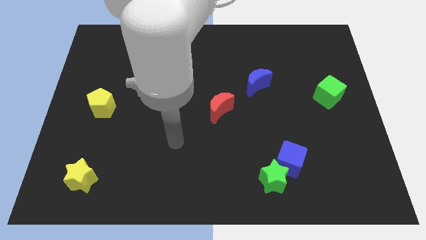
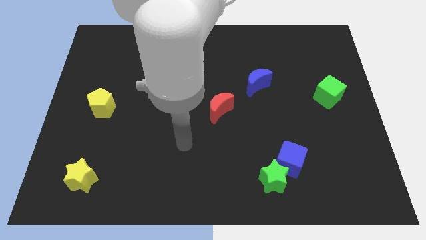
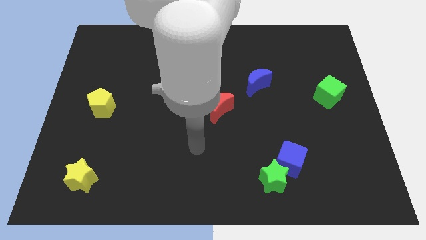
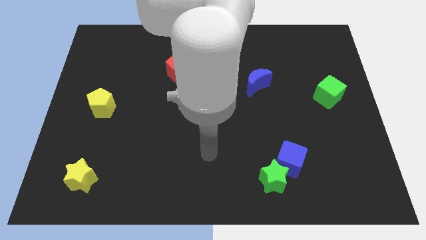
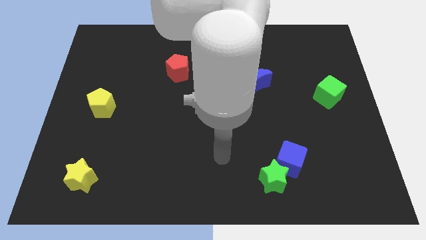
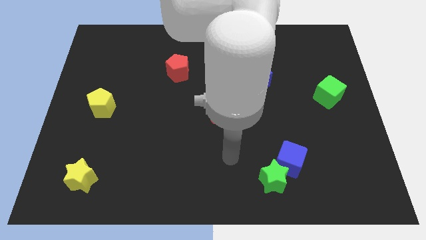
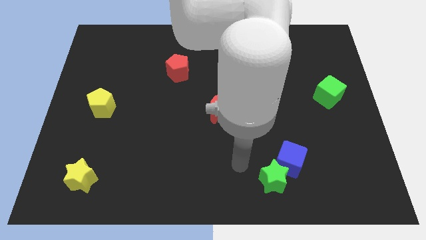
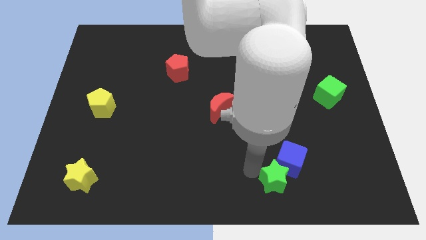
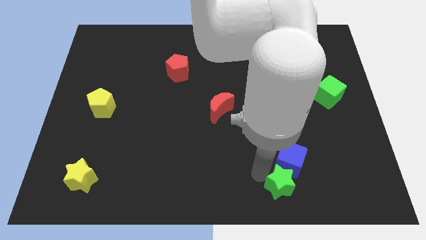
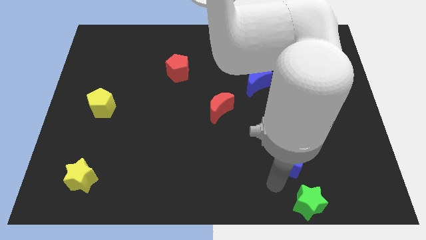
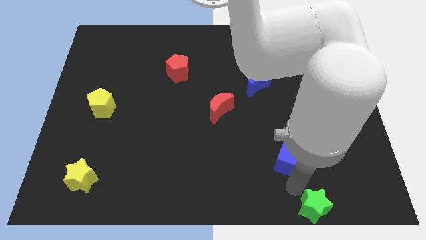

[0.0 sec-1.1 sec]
pull the blue cube apart from the green star

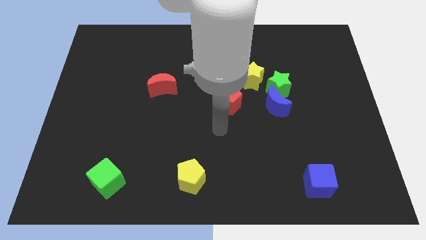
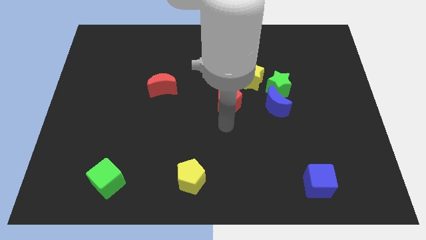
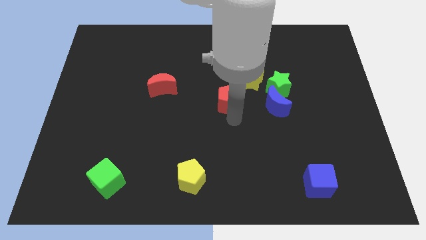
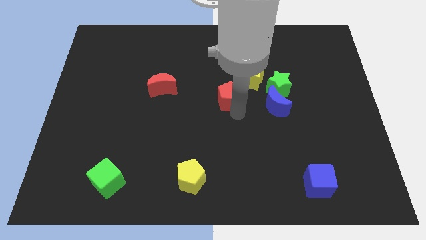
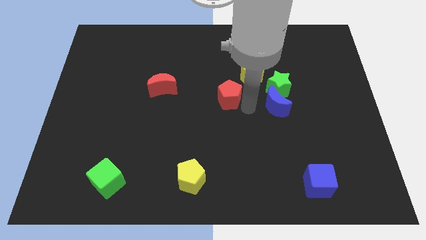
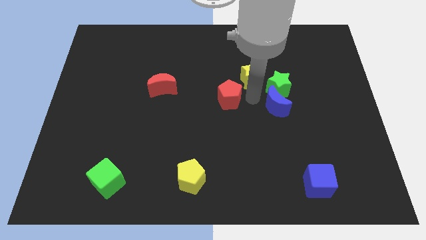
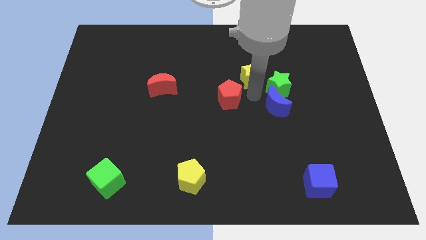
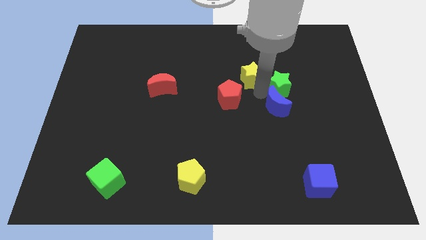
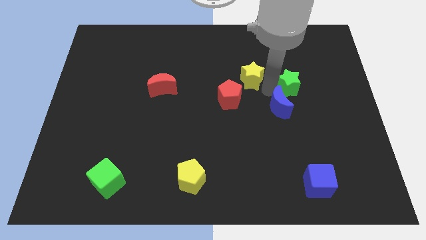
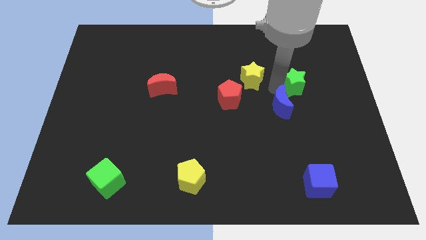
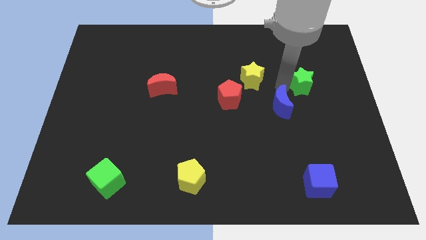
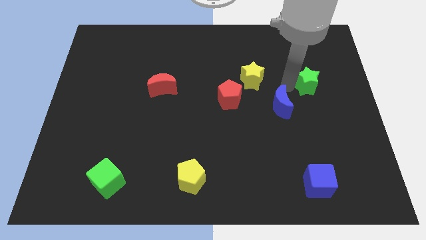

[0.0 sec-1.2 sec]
move the green star away from the blue moon and yellow star

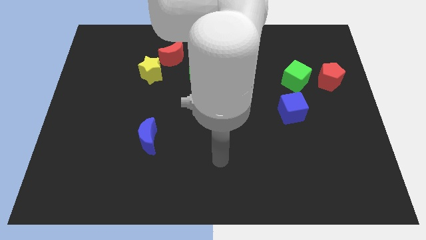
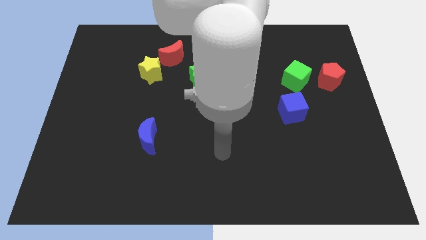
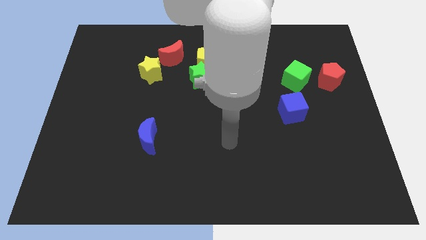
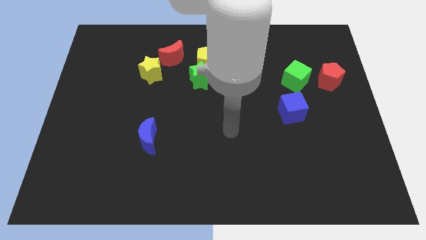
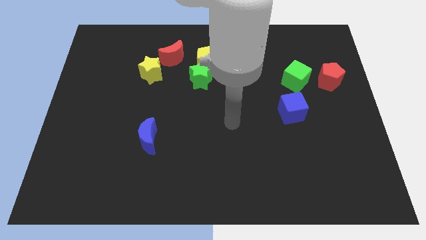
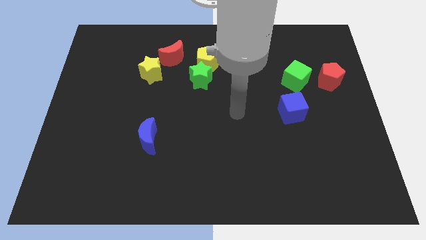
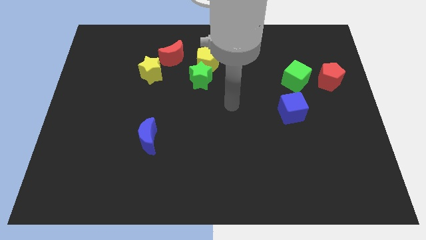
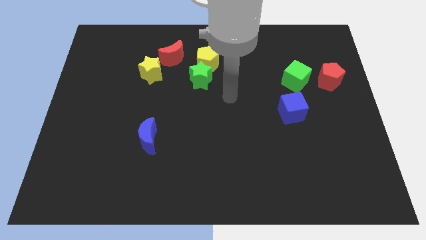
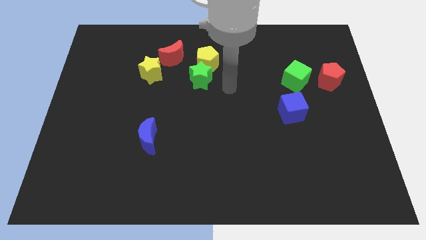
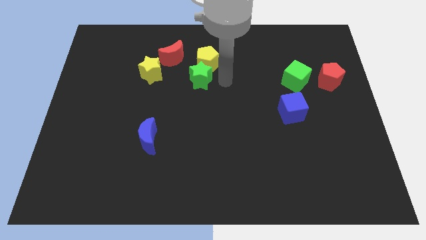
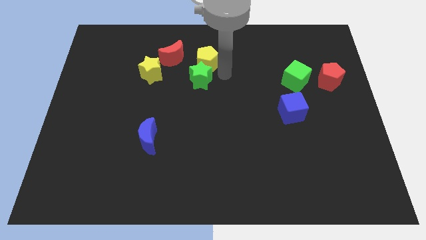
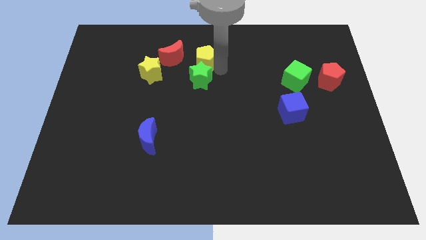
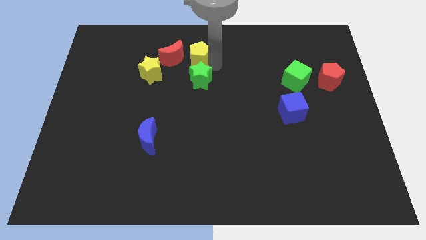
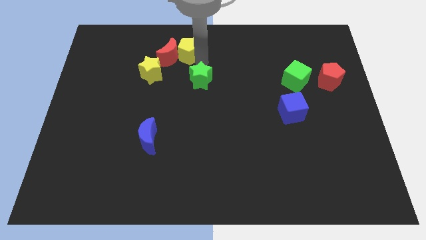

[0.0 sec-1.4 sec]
separate the green star from the yellow pentagon

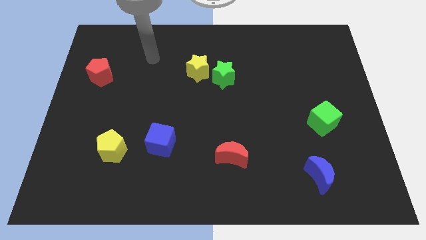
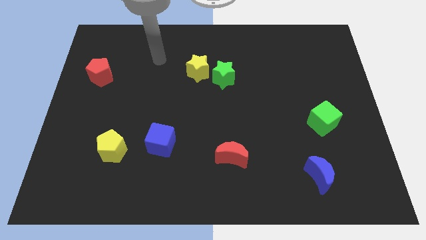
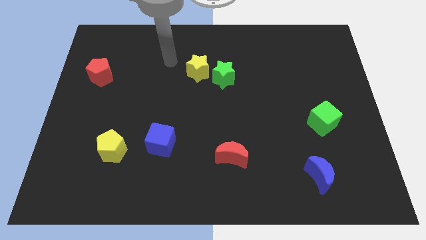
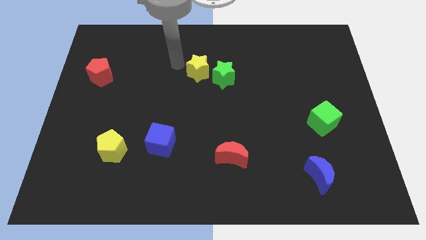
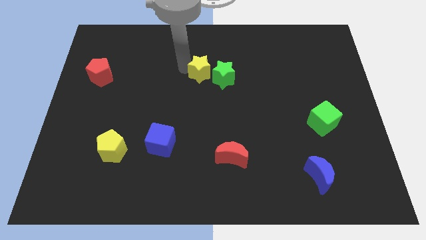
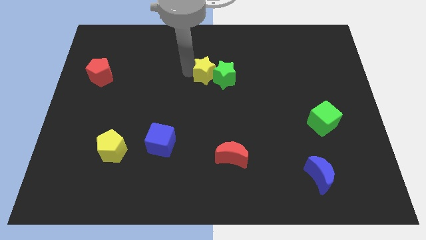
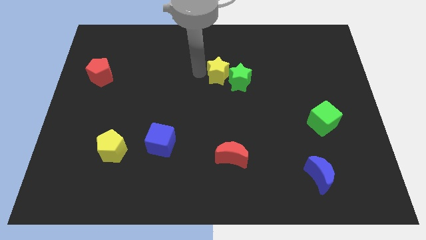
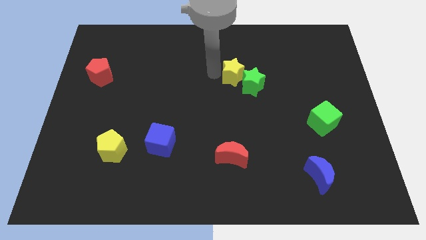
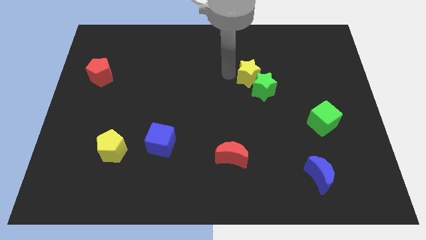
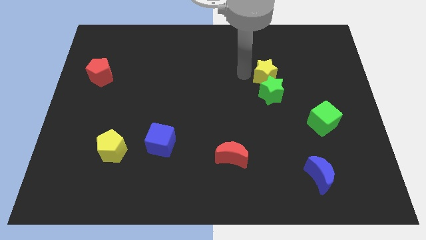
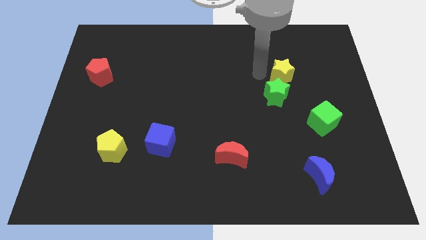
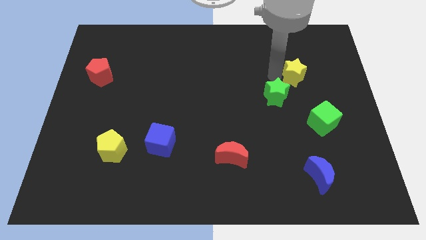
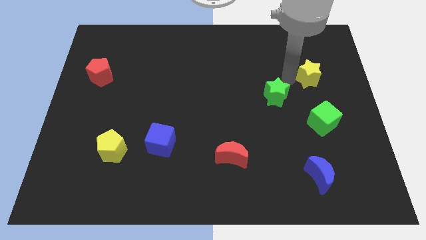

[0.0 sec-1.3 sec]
move the green star away from the yellow star

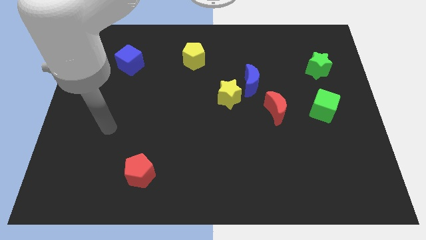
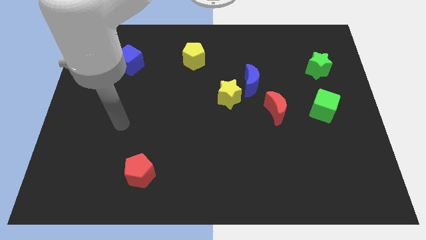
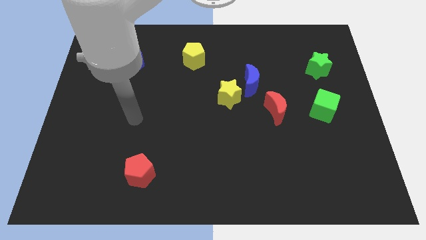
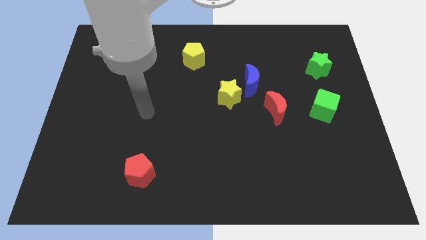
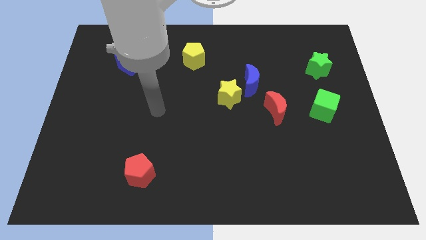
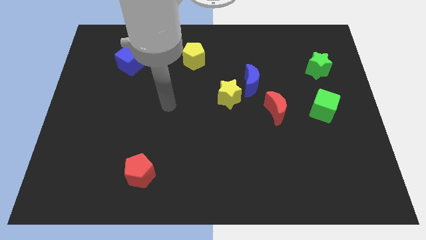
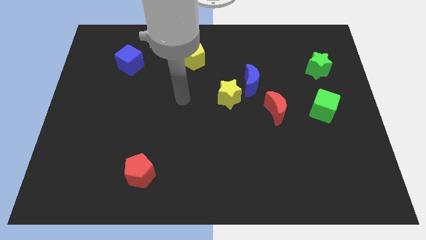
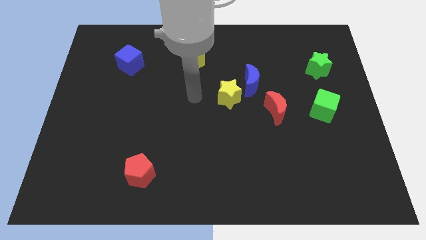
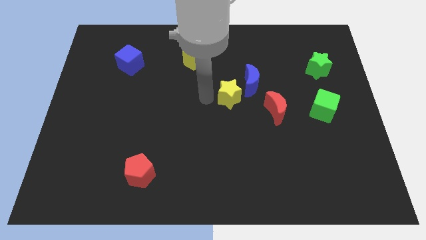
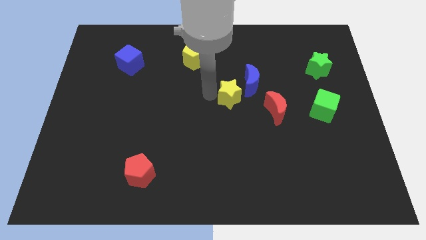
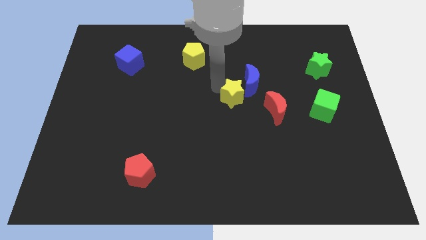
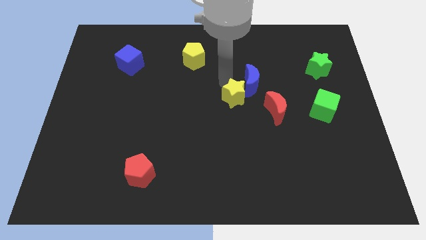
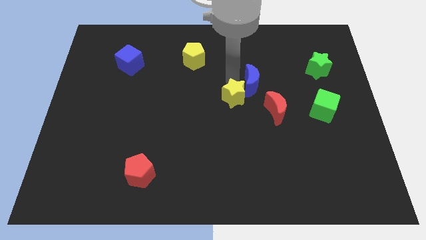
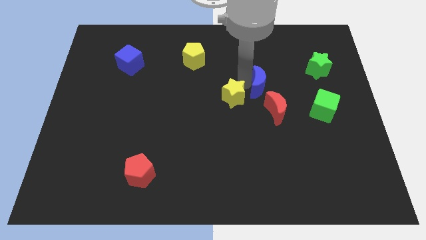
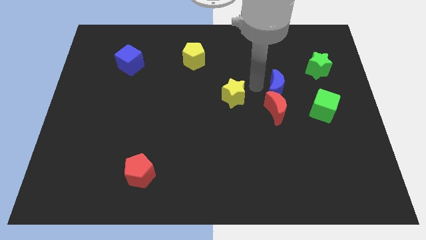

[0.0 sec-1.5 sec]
separate the yellow star from the blue moon

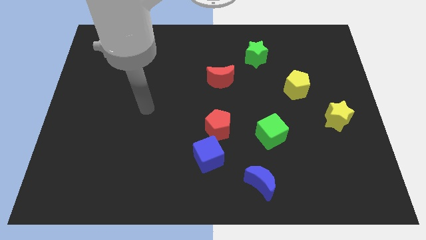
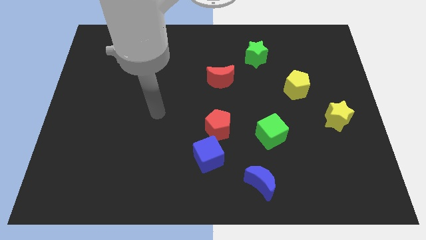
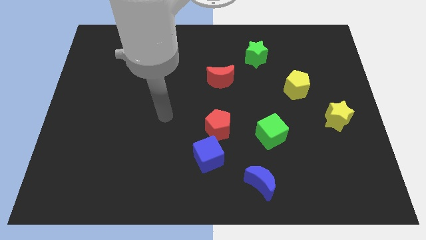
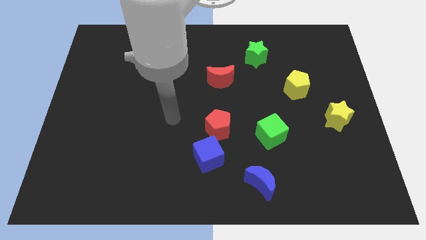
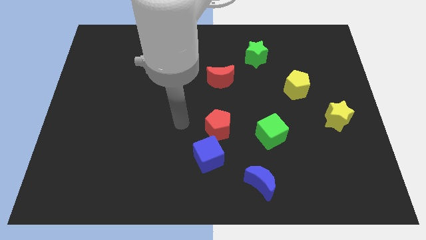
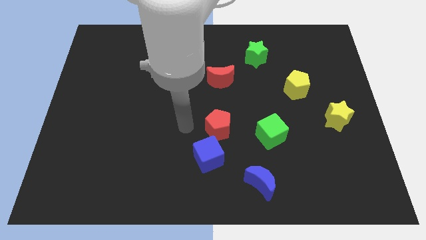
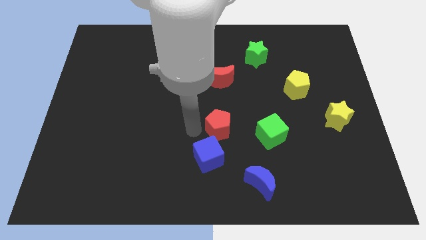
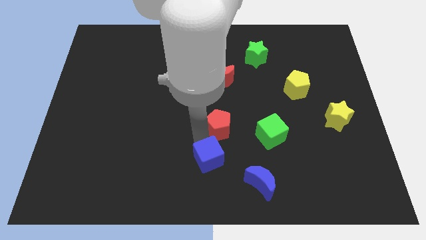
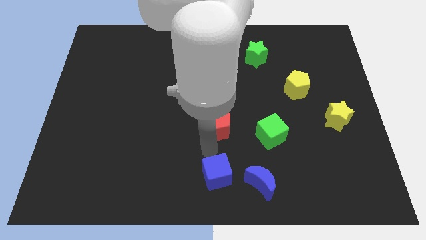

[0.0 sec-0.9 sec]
pull the red pentagon apart from the blue cube

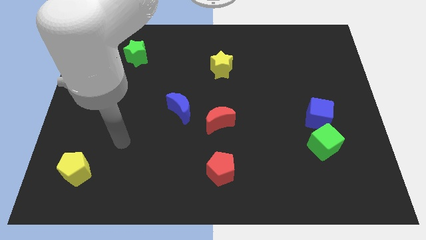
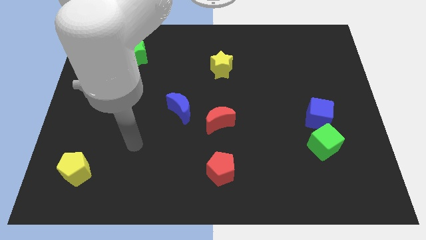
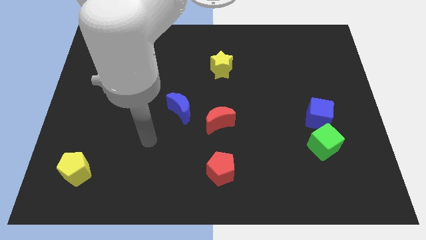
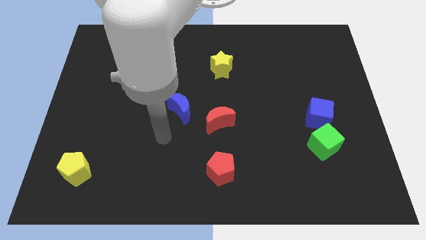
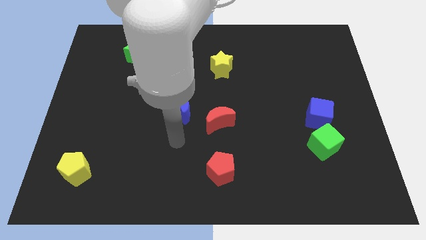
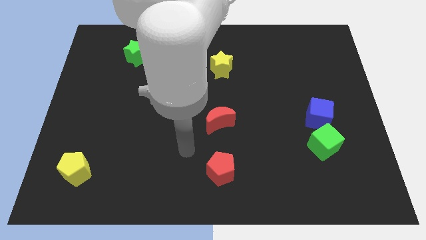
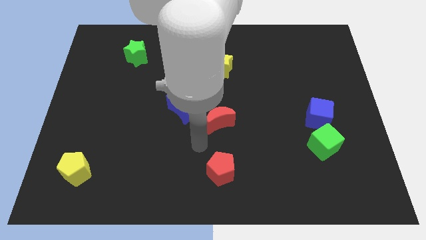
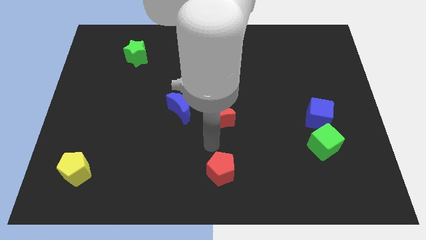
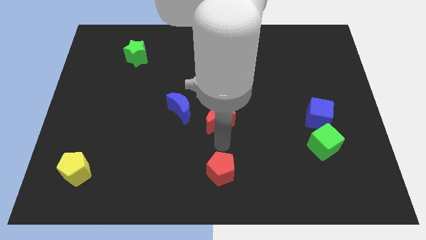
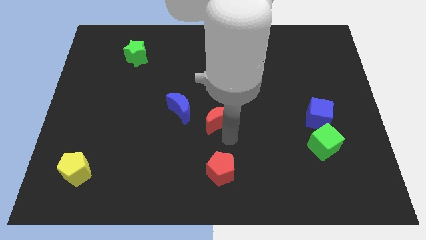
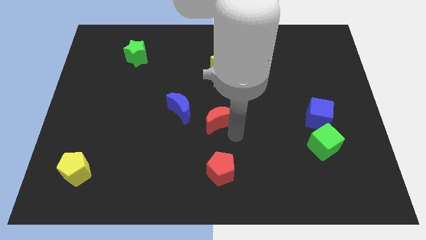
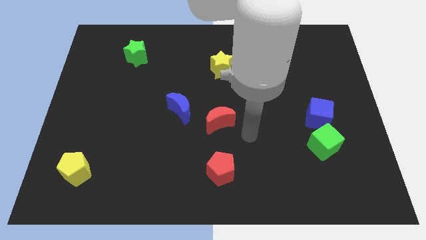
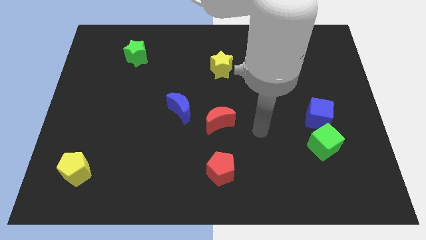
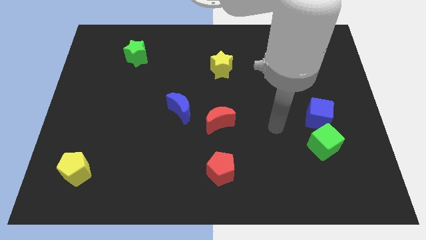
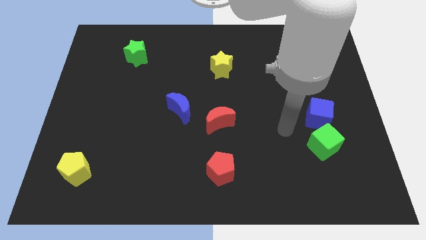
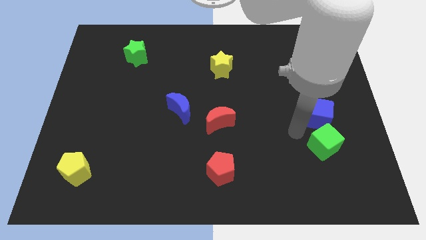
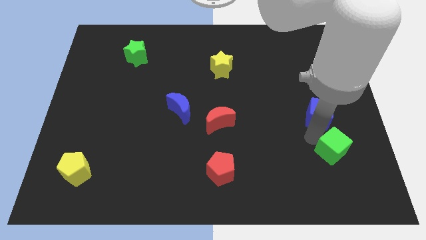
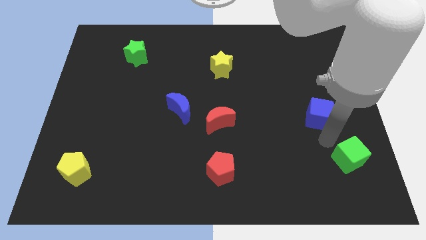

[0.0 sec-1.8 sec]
pull the blue cube apart from the green cube
